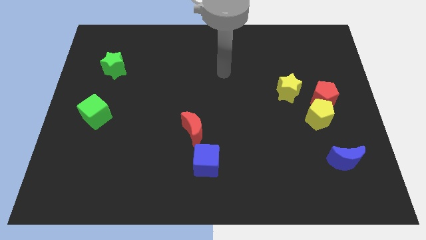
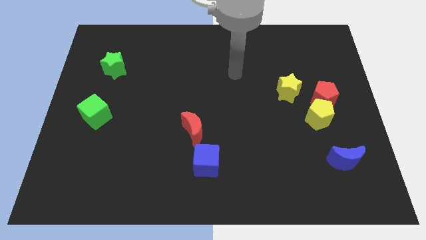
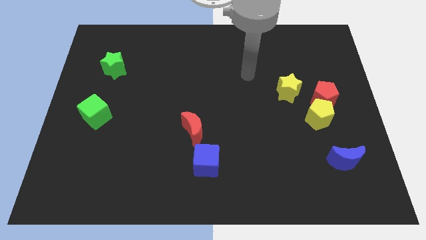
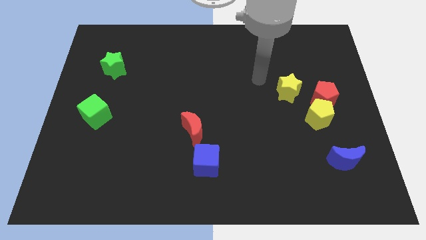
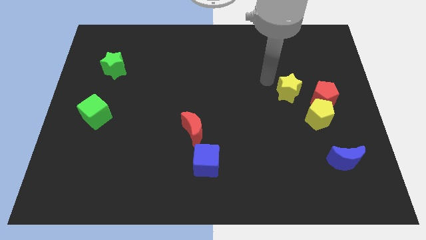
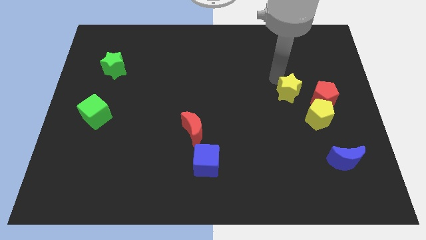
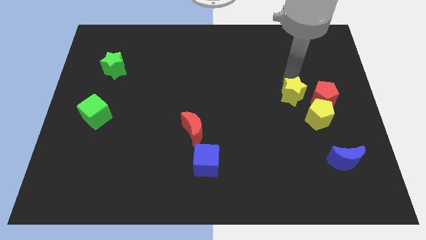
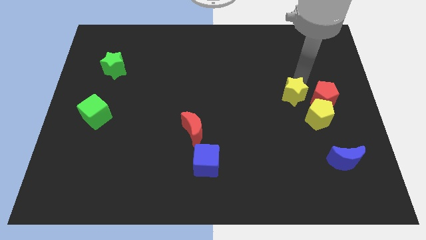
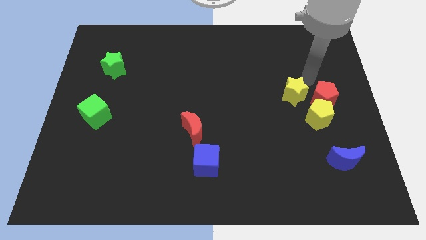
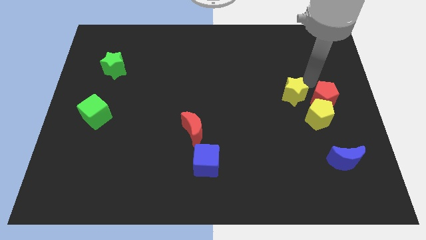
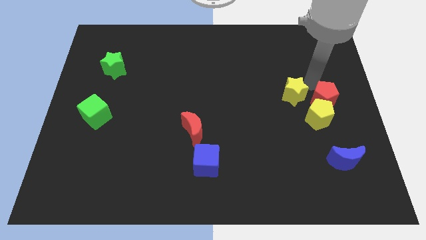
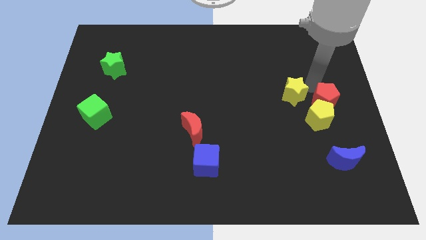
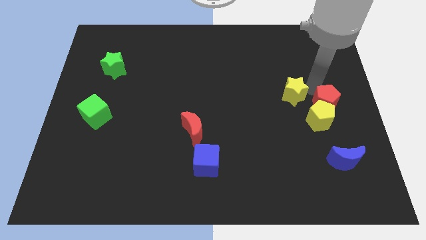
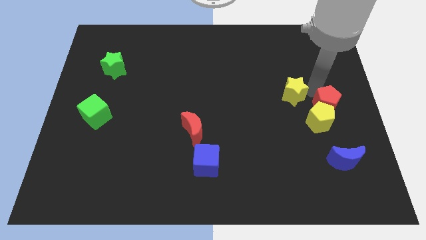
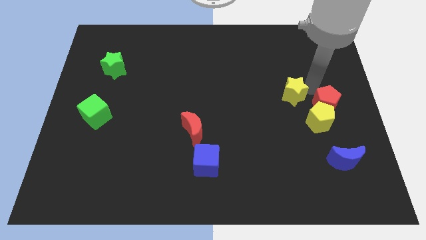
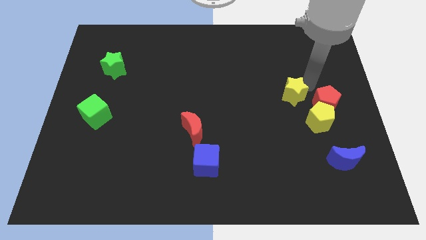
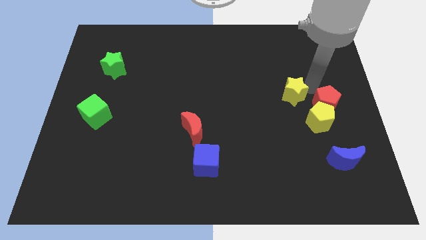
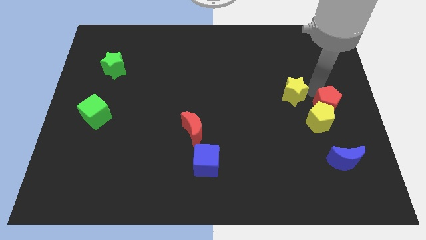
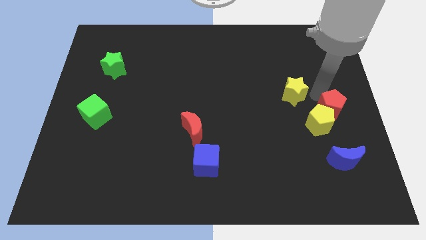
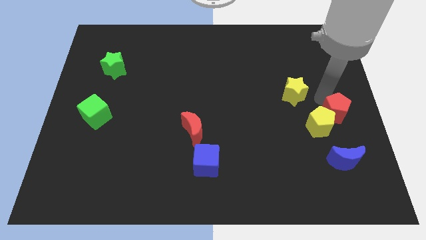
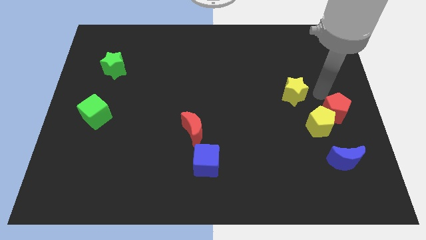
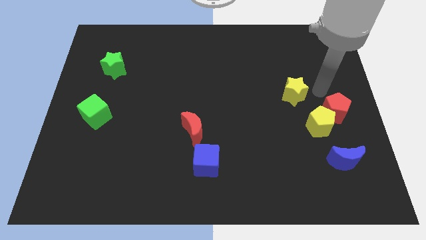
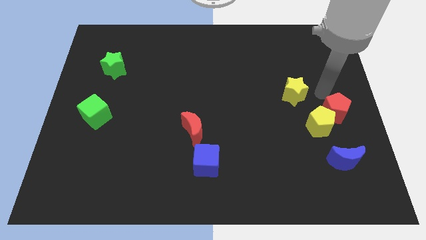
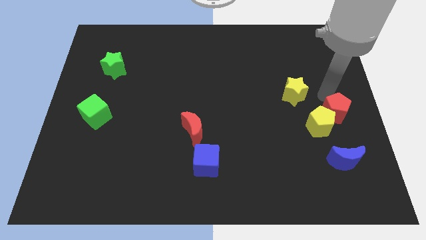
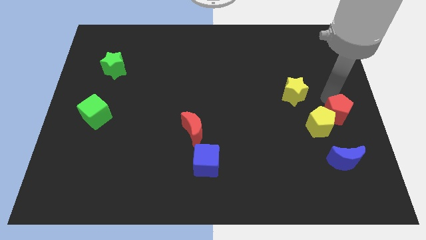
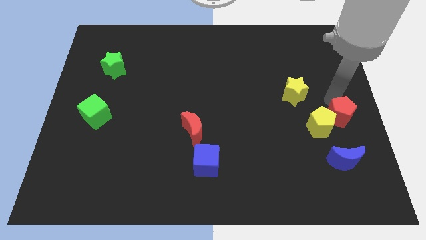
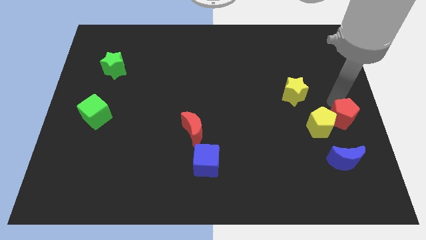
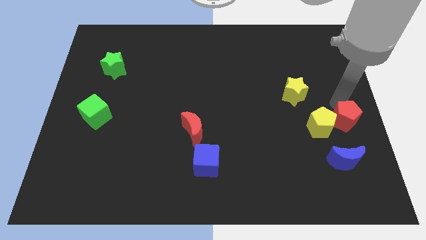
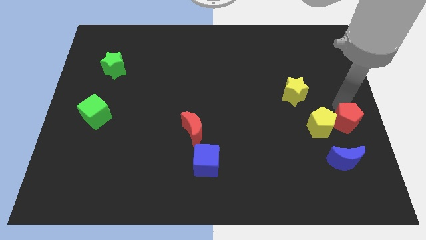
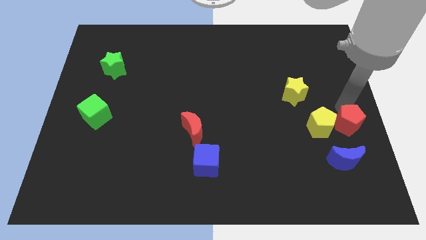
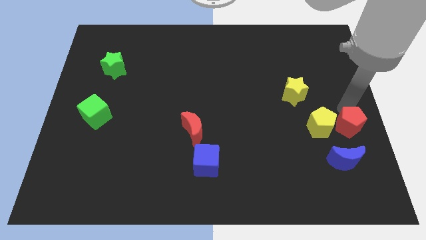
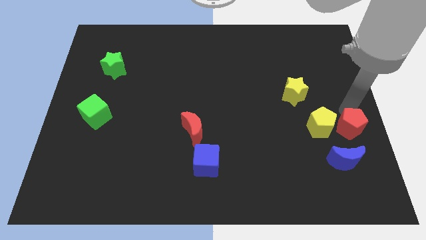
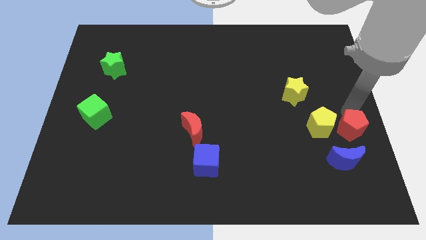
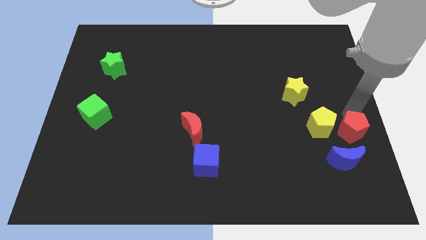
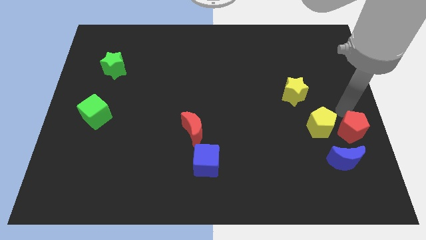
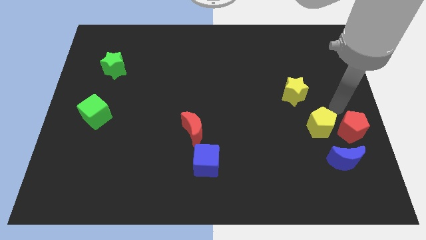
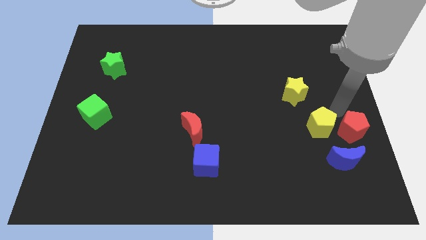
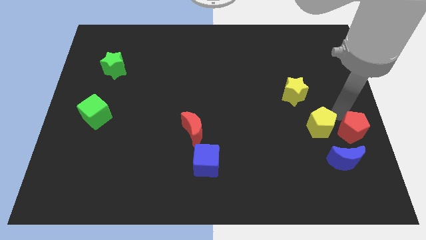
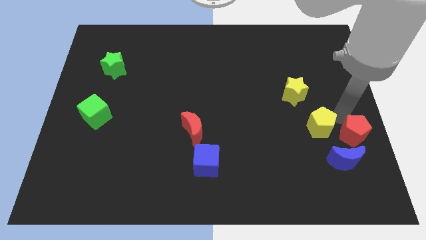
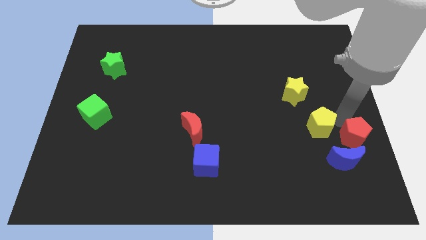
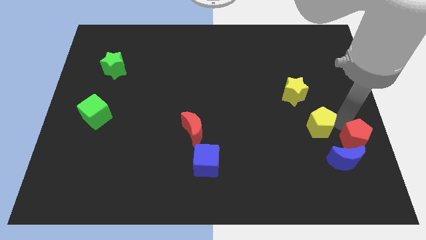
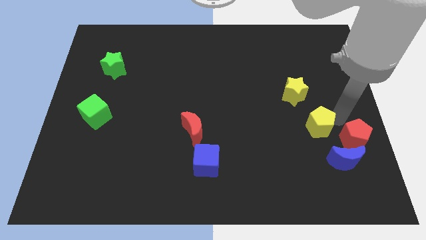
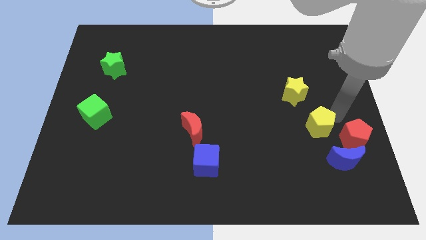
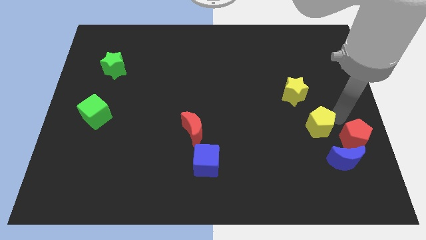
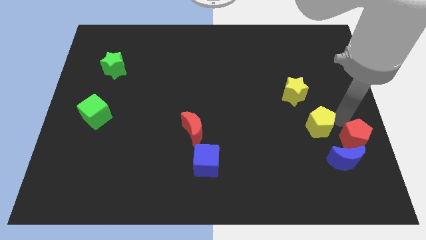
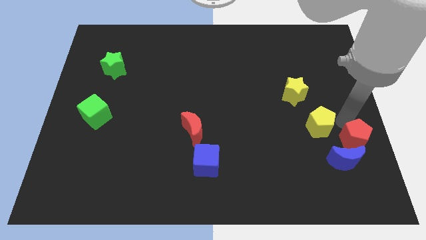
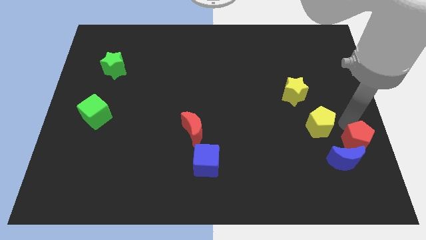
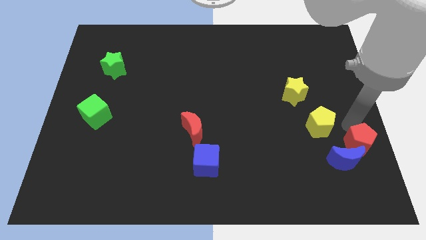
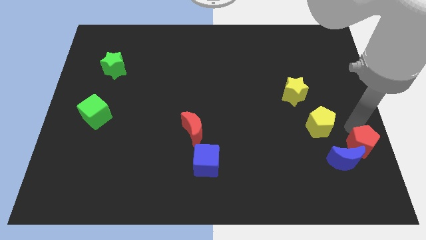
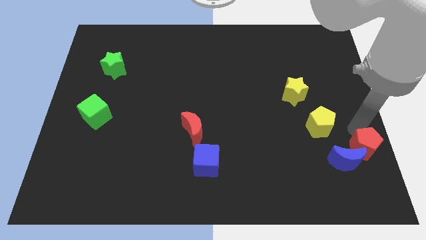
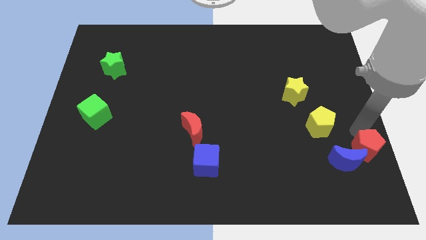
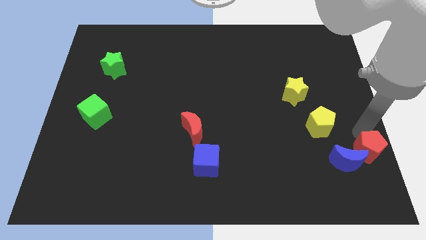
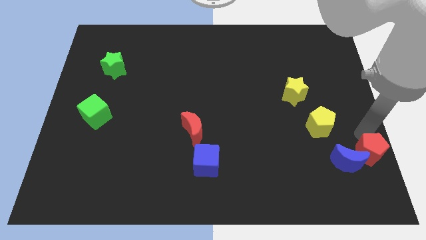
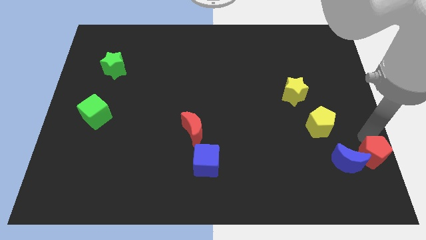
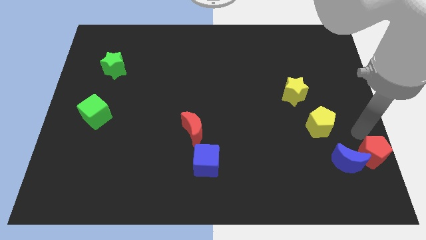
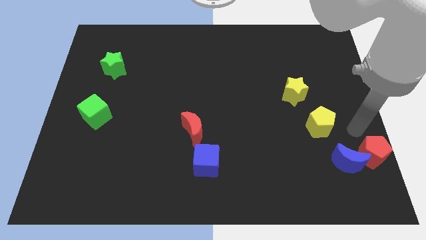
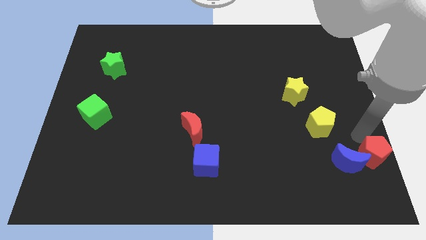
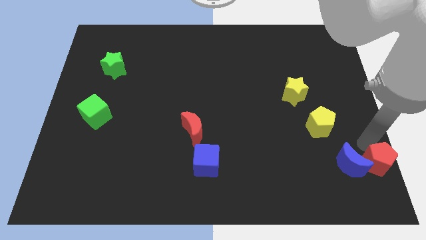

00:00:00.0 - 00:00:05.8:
put the red pentagon to the lower right corner

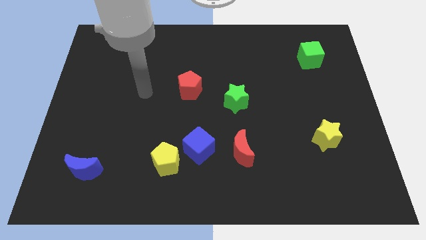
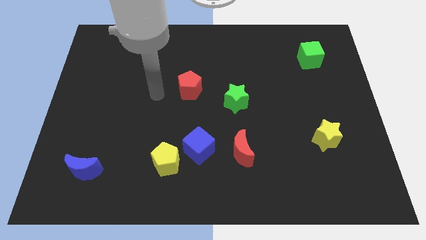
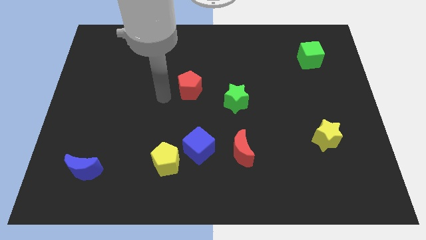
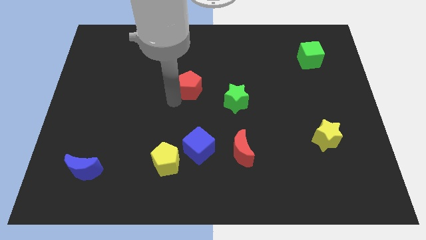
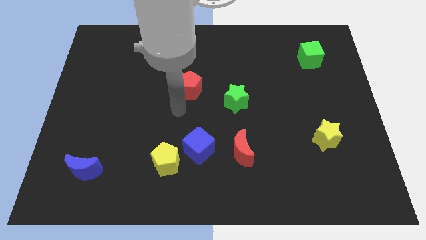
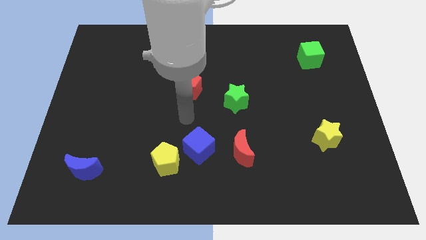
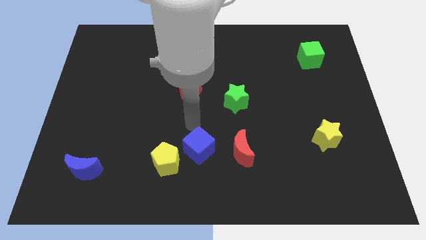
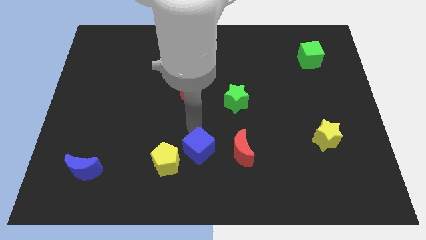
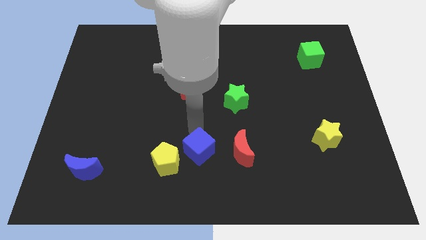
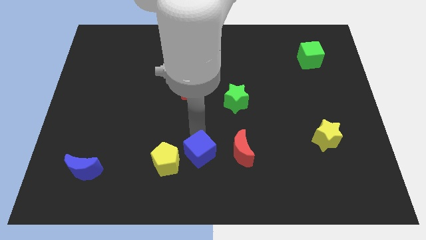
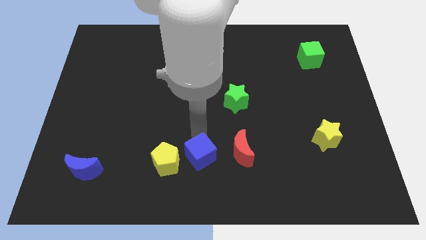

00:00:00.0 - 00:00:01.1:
put the blue cube to the bottom

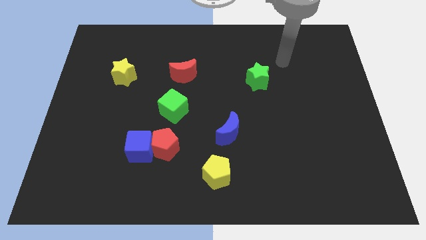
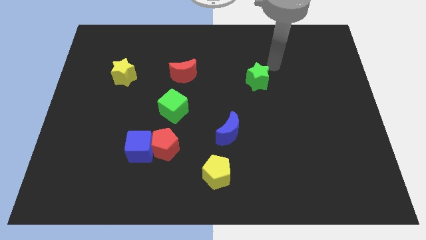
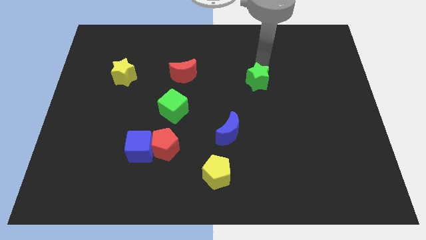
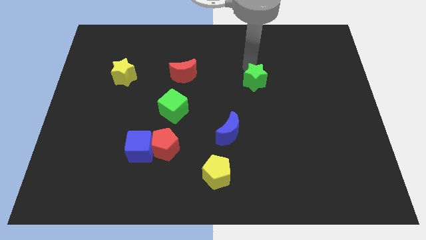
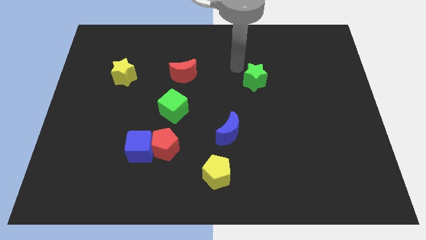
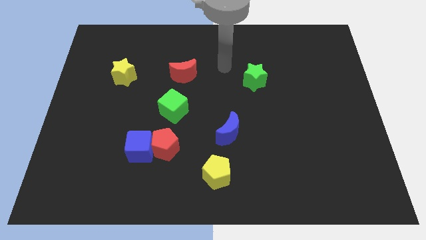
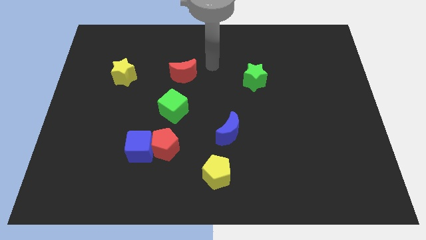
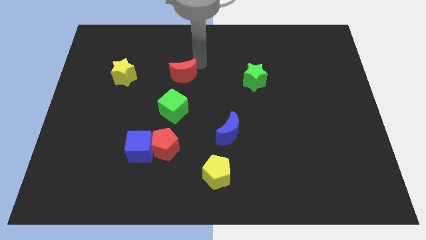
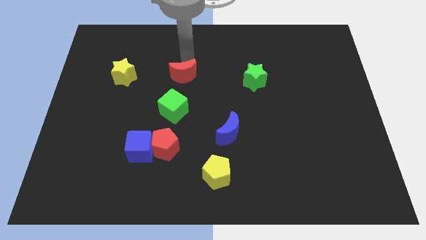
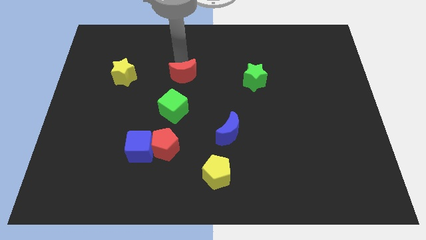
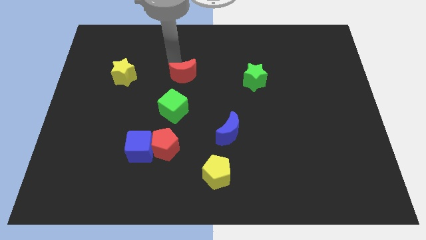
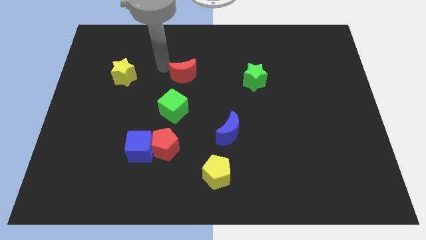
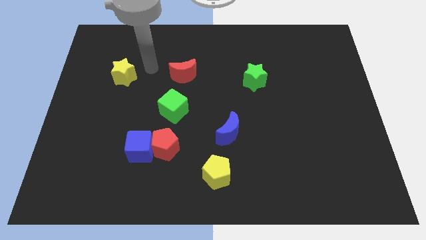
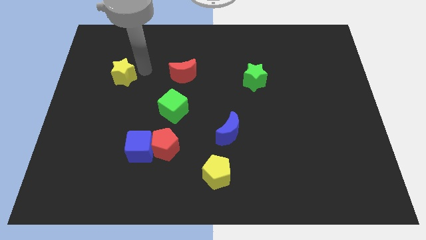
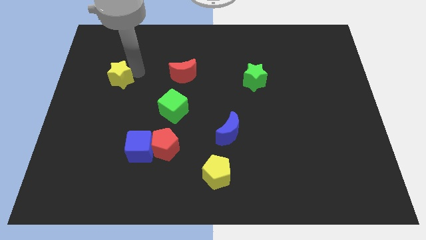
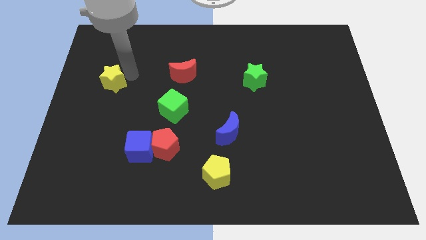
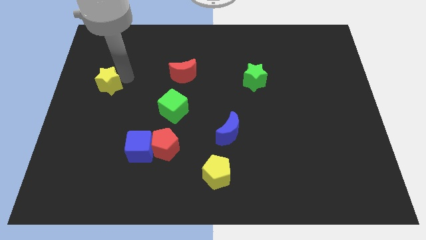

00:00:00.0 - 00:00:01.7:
push the yellow star to the center left
